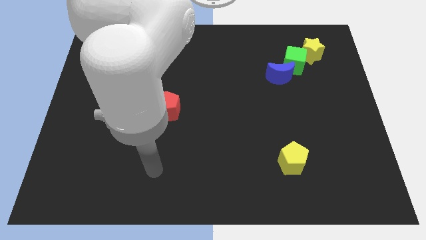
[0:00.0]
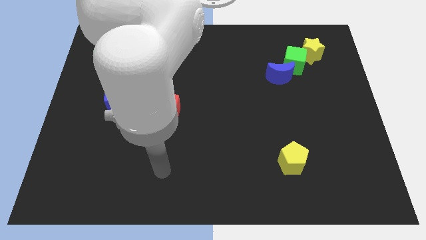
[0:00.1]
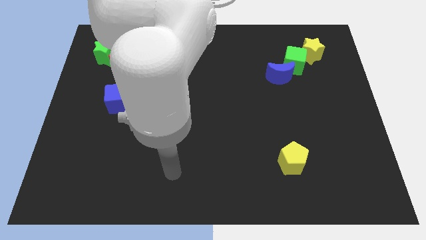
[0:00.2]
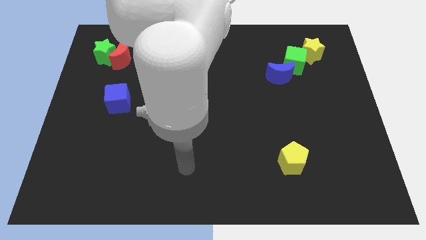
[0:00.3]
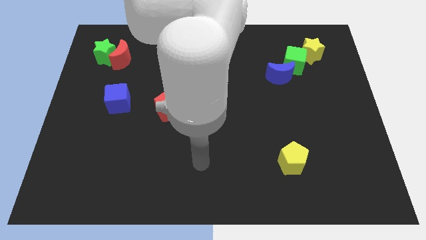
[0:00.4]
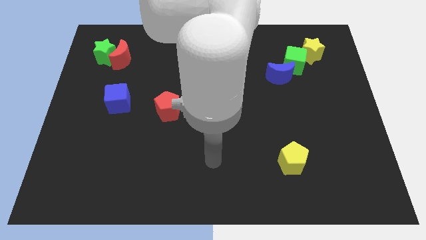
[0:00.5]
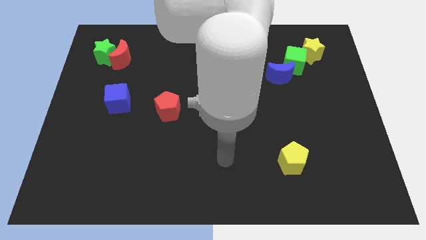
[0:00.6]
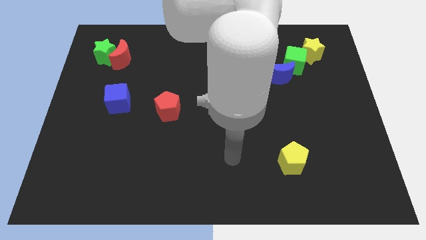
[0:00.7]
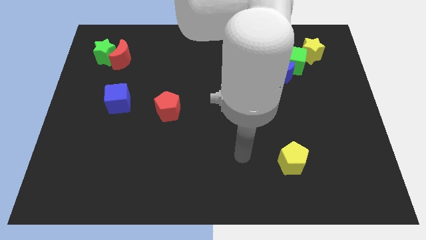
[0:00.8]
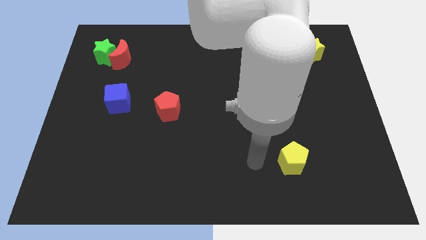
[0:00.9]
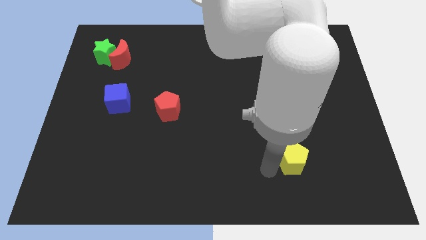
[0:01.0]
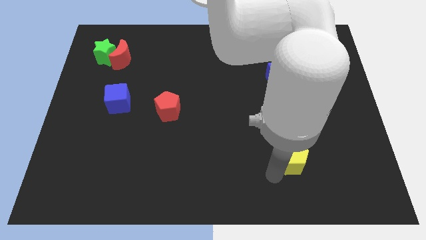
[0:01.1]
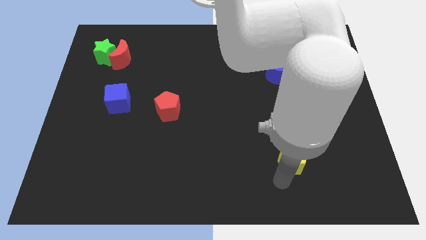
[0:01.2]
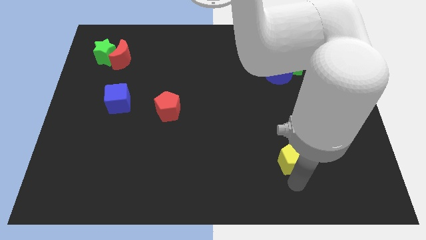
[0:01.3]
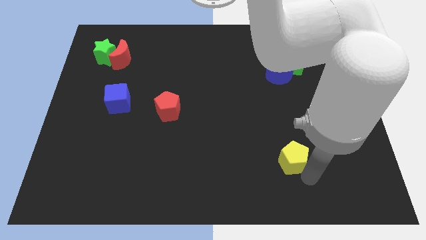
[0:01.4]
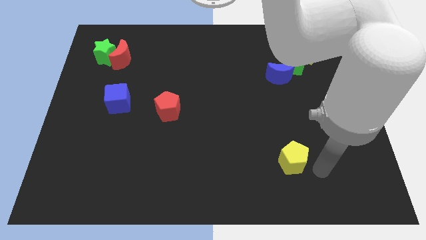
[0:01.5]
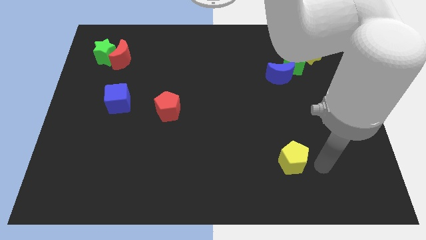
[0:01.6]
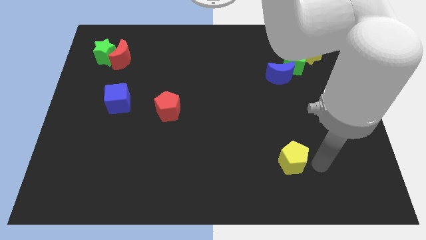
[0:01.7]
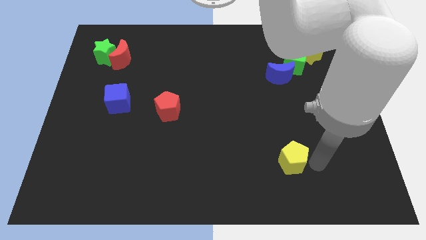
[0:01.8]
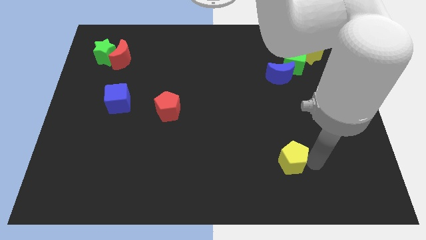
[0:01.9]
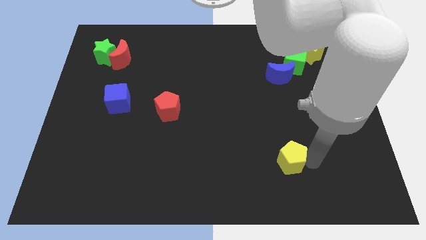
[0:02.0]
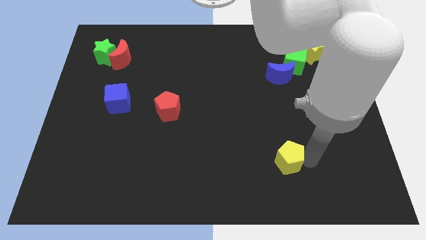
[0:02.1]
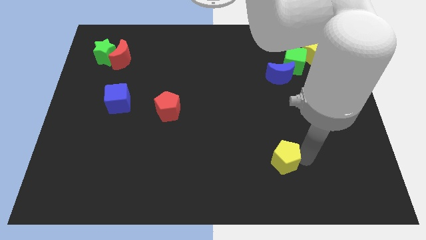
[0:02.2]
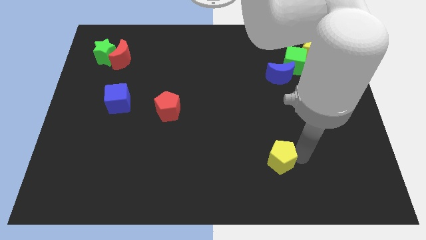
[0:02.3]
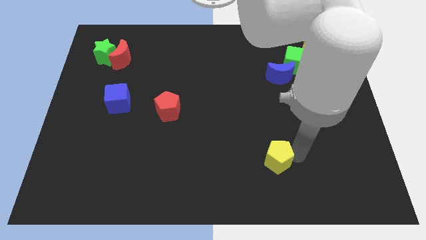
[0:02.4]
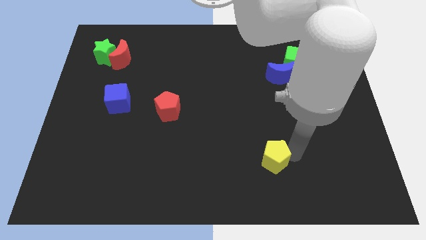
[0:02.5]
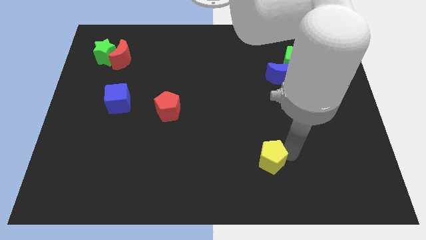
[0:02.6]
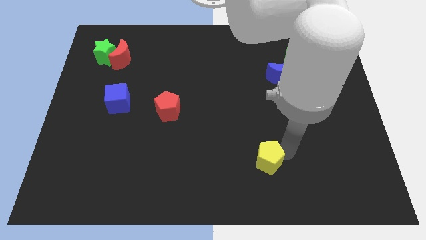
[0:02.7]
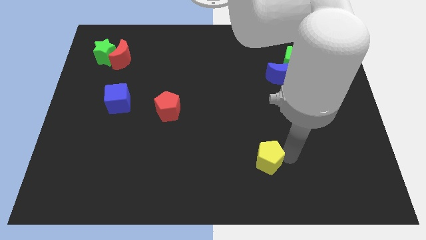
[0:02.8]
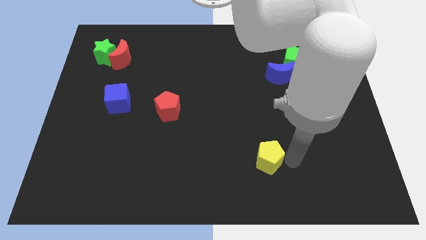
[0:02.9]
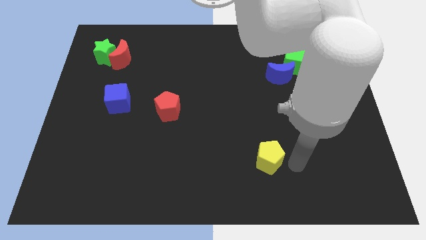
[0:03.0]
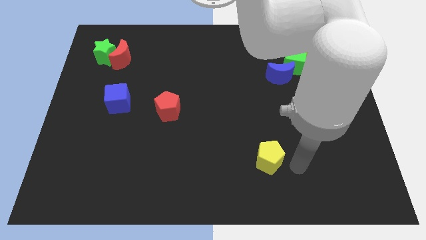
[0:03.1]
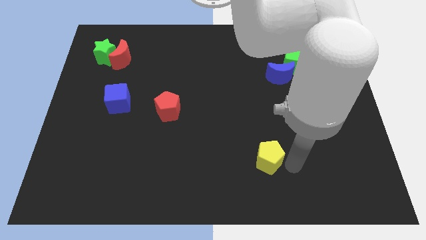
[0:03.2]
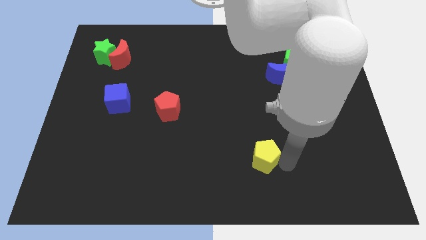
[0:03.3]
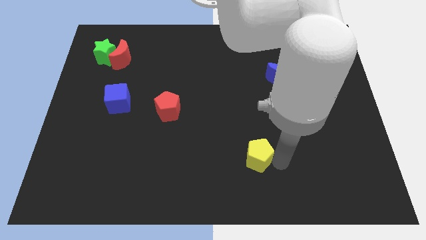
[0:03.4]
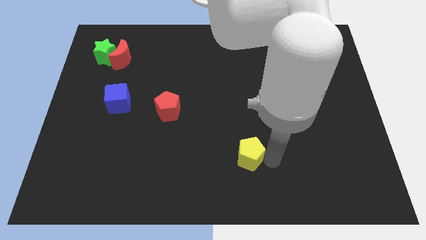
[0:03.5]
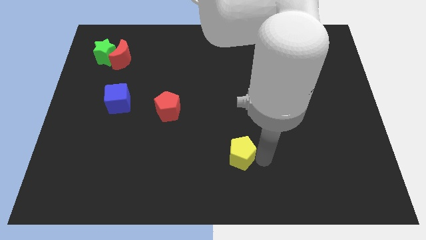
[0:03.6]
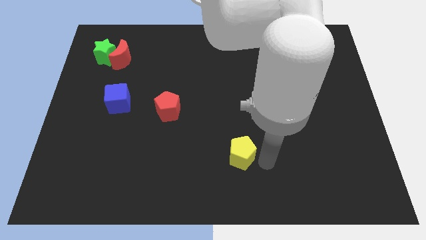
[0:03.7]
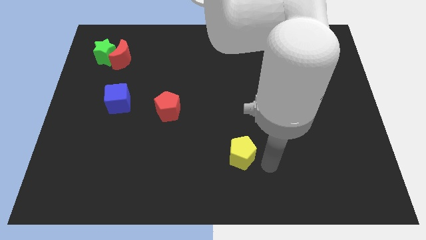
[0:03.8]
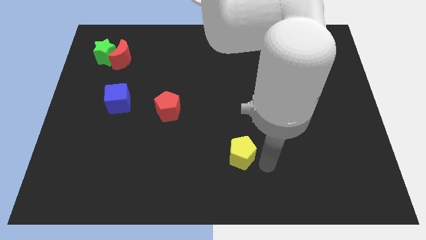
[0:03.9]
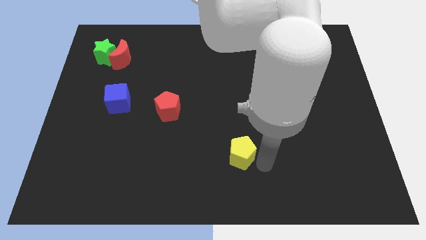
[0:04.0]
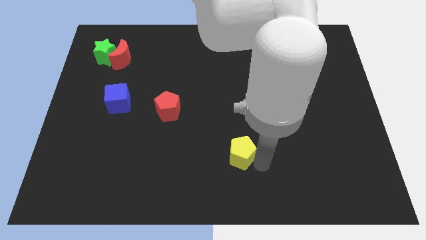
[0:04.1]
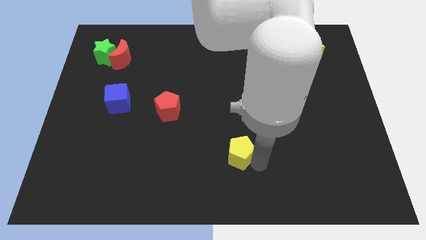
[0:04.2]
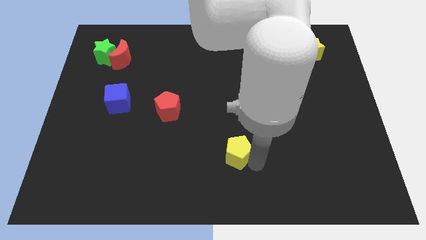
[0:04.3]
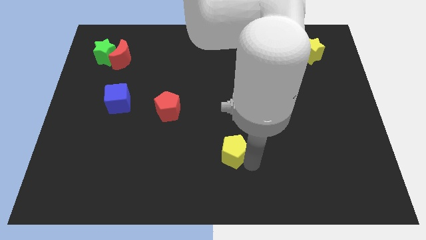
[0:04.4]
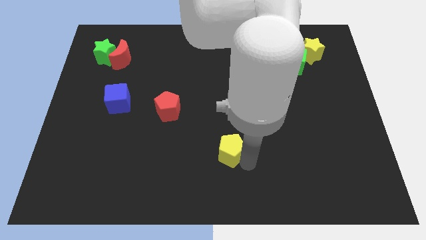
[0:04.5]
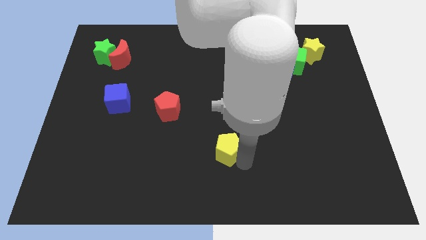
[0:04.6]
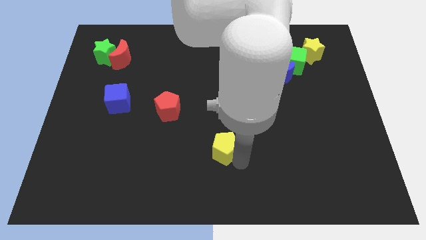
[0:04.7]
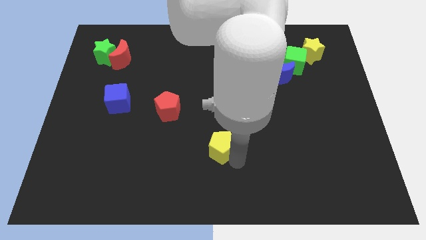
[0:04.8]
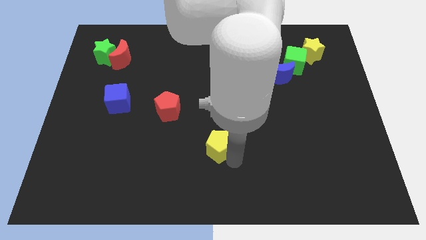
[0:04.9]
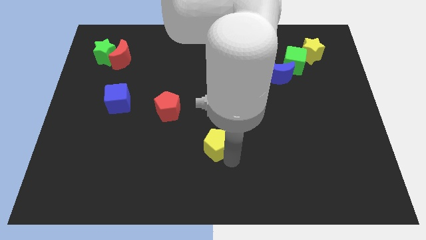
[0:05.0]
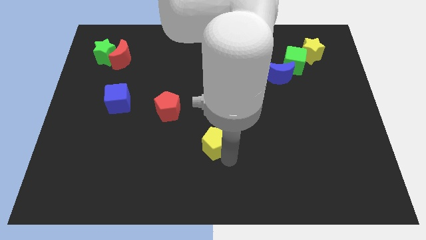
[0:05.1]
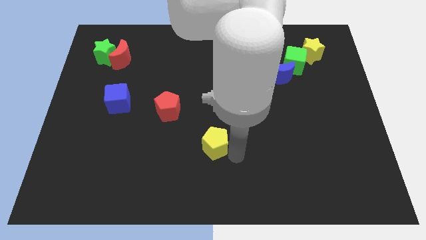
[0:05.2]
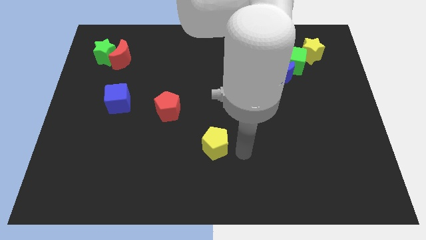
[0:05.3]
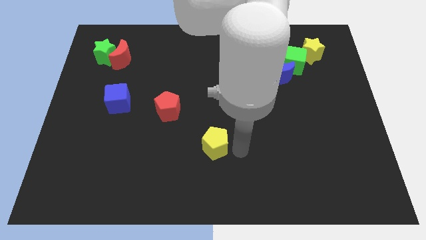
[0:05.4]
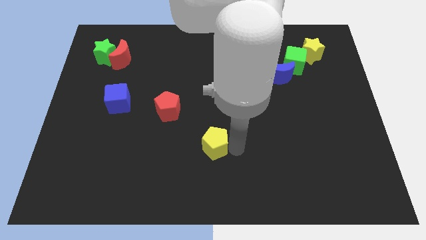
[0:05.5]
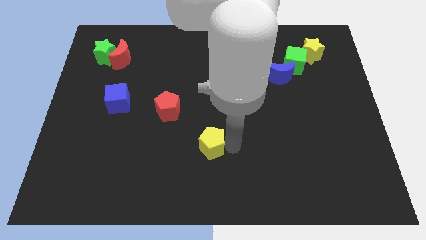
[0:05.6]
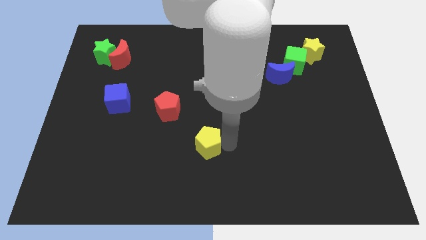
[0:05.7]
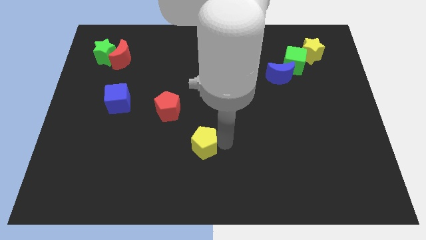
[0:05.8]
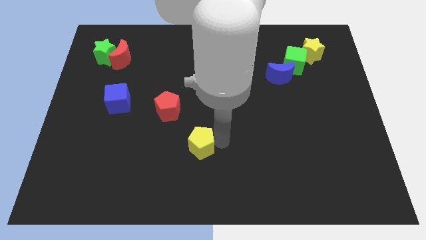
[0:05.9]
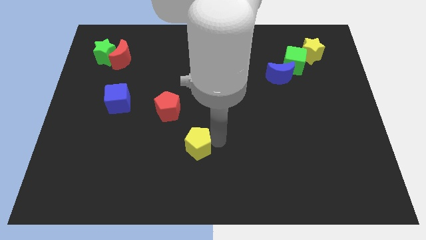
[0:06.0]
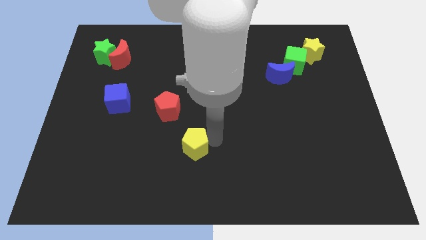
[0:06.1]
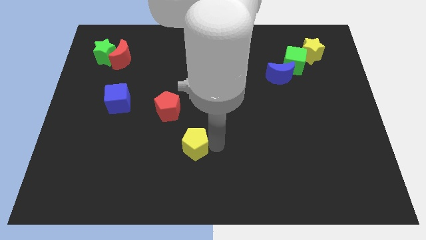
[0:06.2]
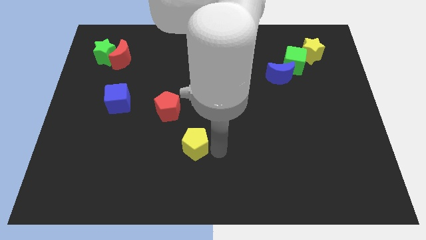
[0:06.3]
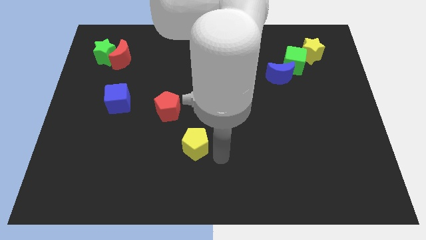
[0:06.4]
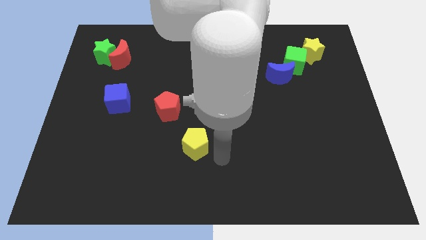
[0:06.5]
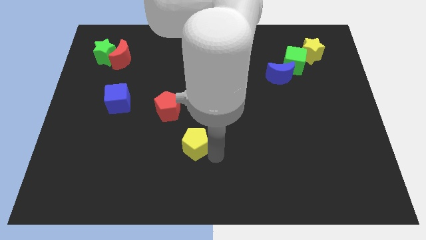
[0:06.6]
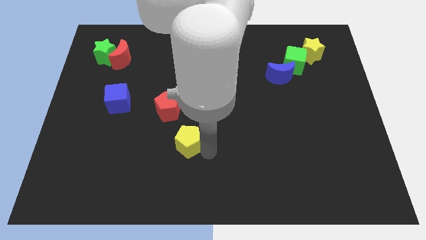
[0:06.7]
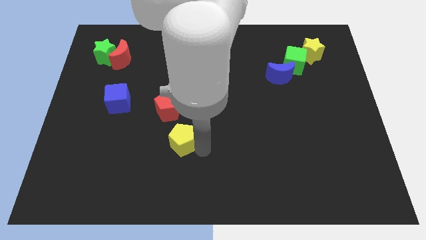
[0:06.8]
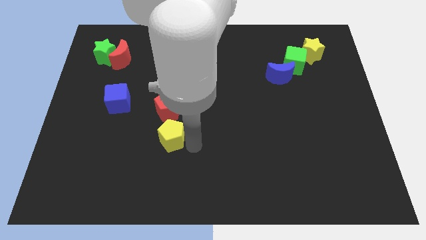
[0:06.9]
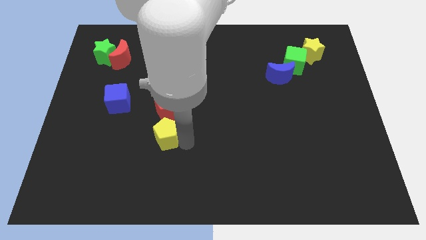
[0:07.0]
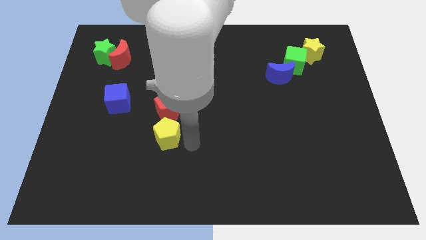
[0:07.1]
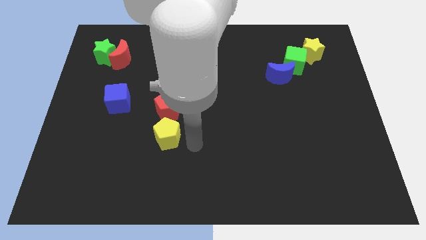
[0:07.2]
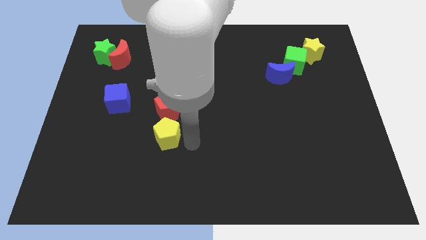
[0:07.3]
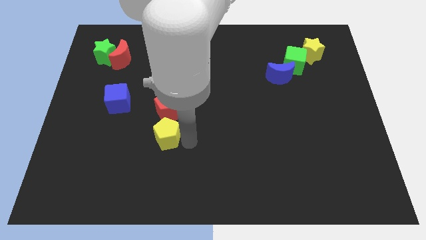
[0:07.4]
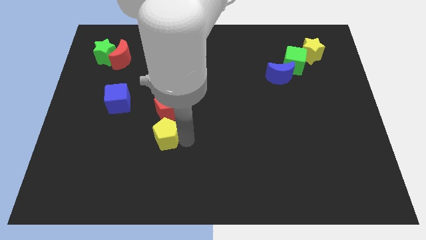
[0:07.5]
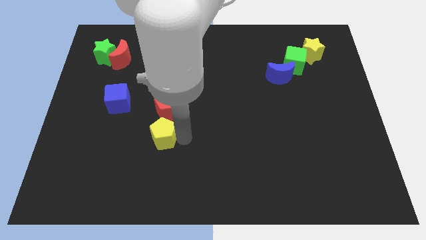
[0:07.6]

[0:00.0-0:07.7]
move the yellow pentagon to the bottom left of the red pentagon

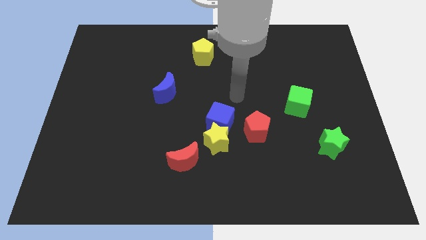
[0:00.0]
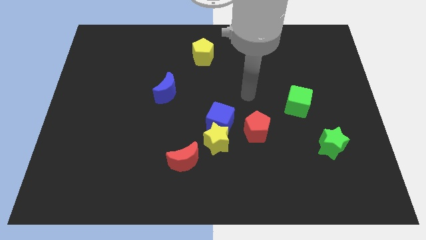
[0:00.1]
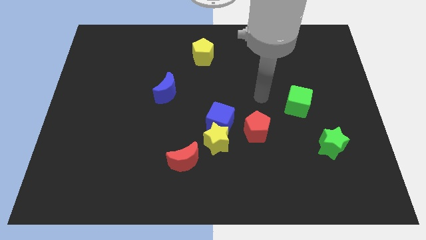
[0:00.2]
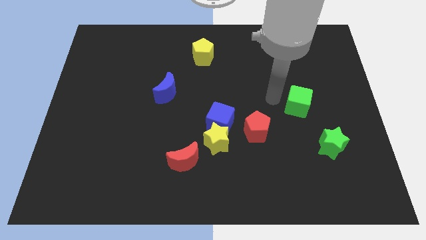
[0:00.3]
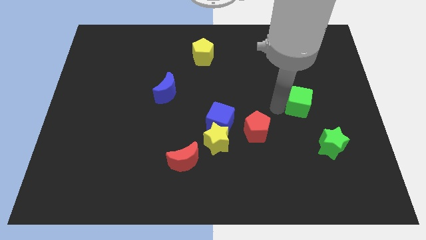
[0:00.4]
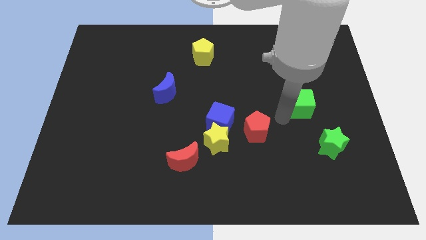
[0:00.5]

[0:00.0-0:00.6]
move the green star diagonally down and to the right of the green cube
